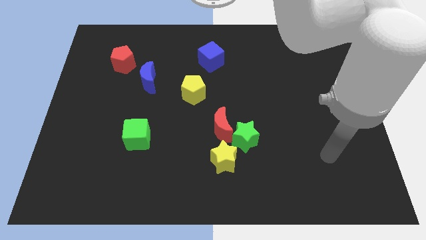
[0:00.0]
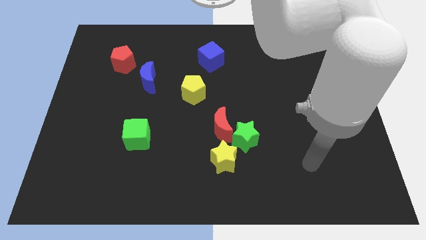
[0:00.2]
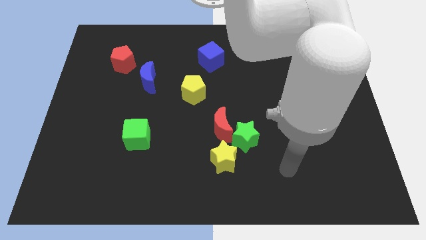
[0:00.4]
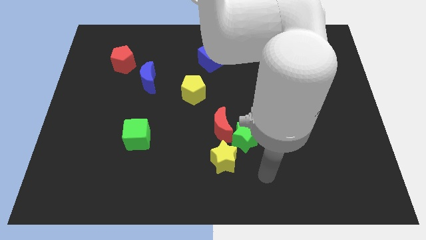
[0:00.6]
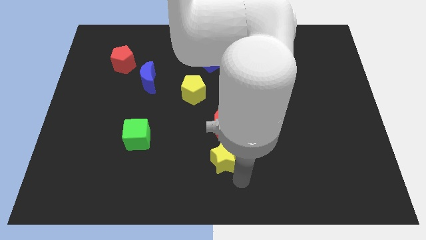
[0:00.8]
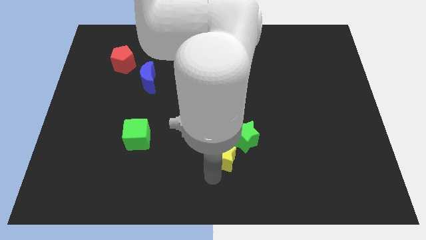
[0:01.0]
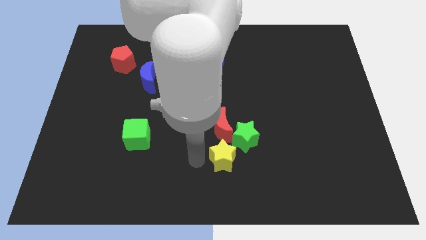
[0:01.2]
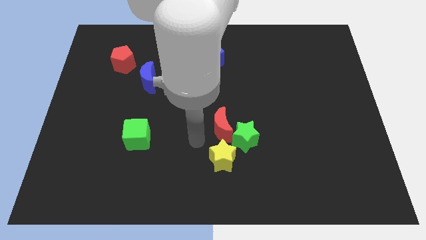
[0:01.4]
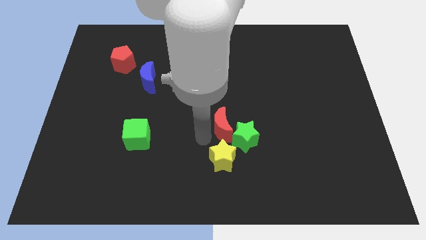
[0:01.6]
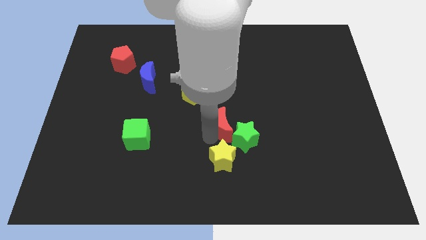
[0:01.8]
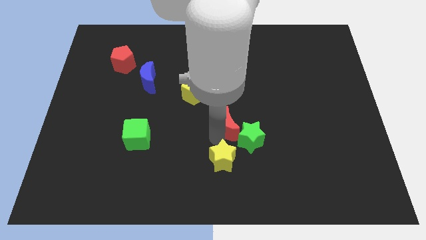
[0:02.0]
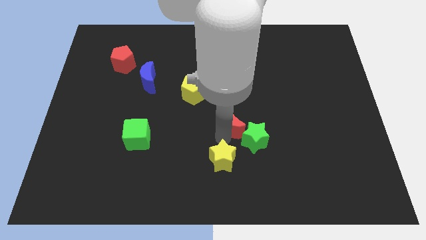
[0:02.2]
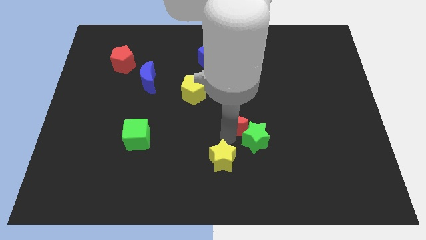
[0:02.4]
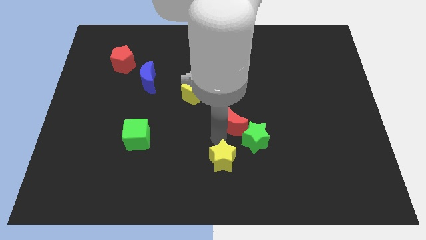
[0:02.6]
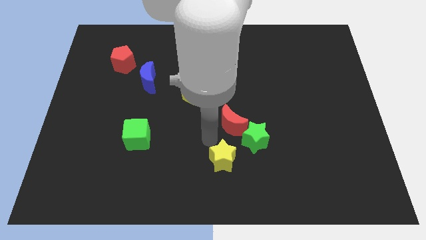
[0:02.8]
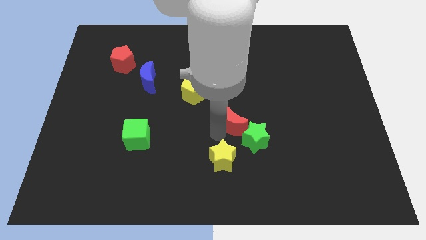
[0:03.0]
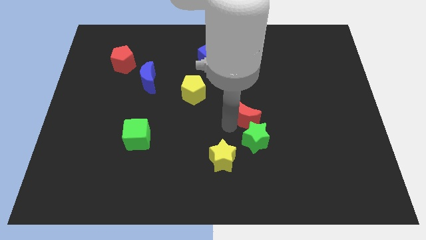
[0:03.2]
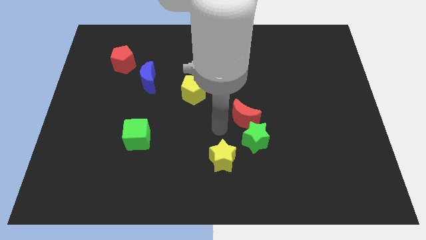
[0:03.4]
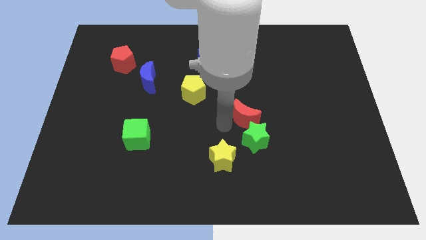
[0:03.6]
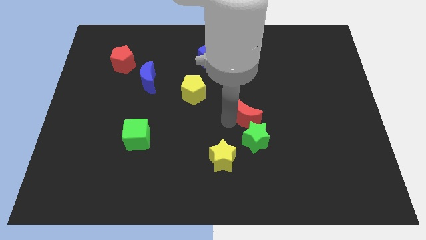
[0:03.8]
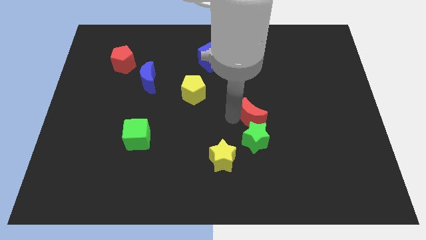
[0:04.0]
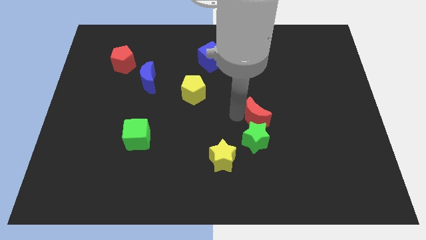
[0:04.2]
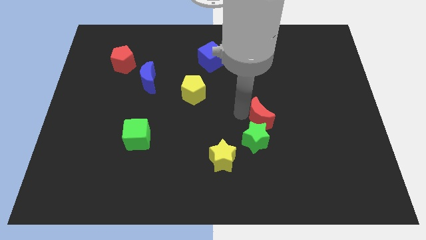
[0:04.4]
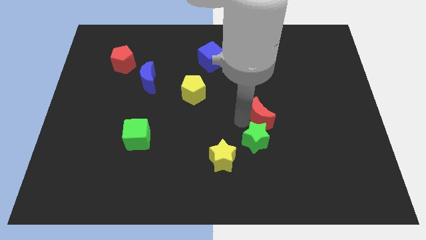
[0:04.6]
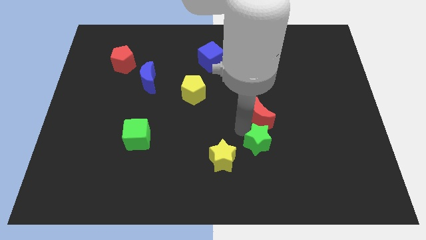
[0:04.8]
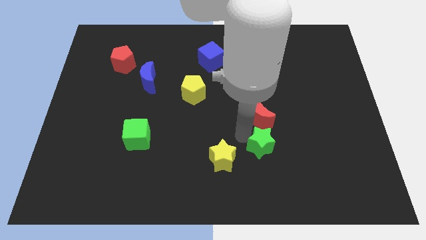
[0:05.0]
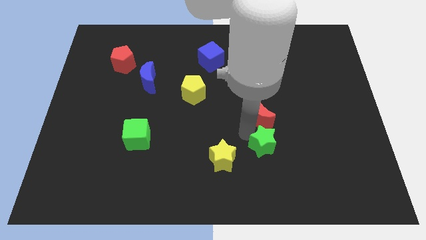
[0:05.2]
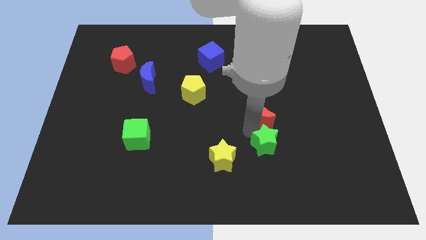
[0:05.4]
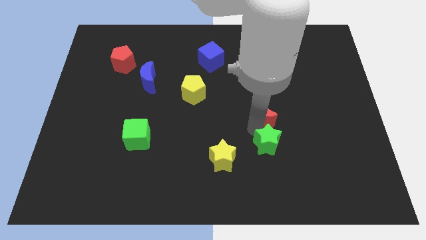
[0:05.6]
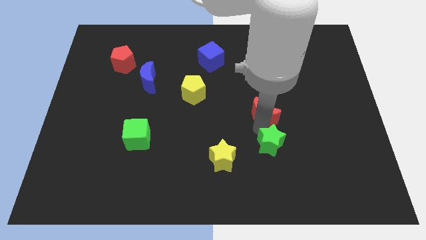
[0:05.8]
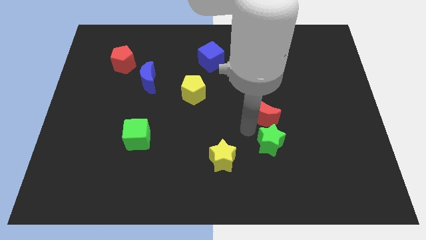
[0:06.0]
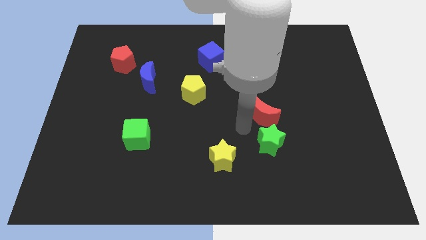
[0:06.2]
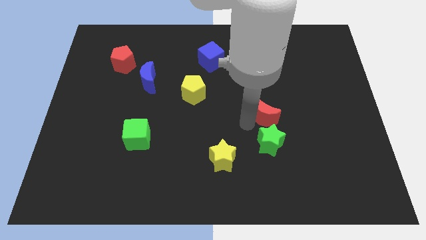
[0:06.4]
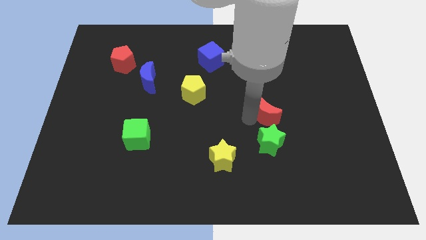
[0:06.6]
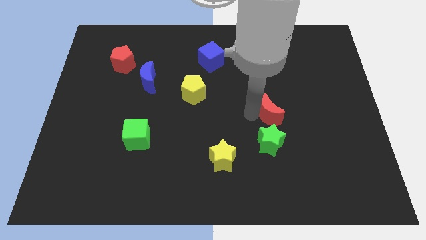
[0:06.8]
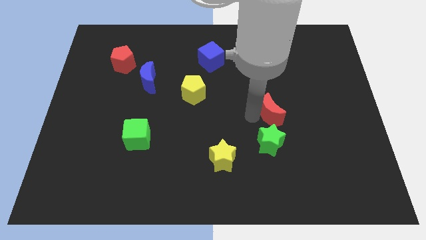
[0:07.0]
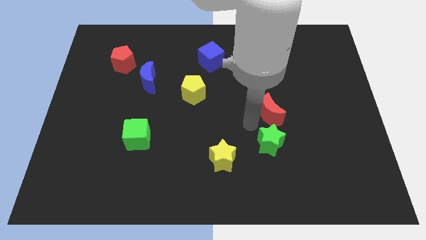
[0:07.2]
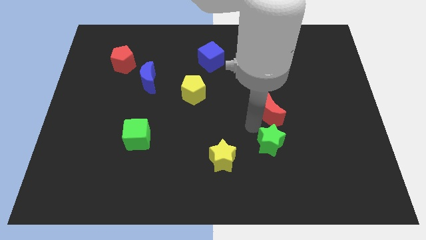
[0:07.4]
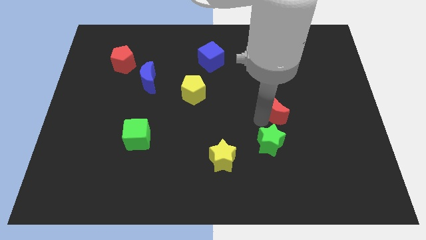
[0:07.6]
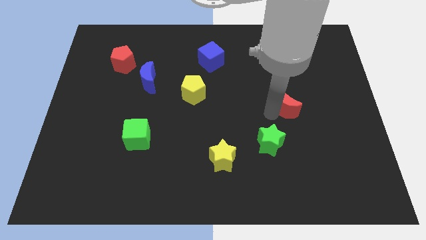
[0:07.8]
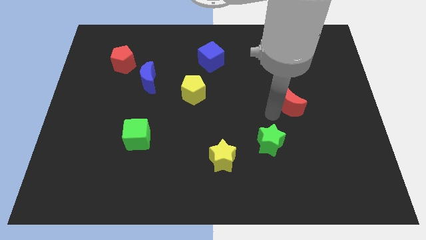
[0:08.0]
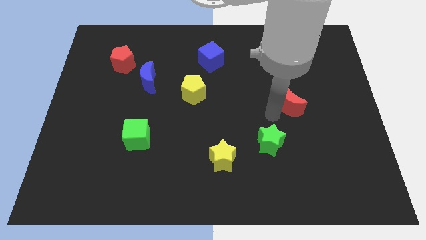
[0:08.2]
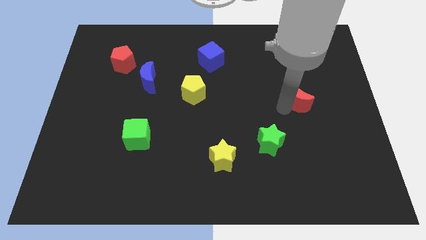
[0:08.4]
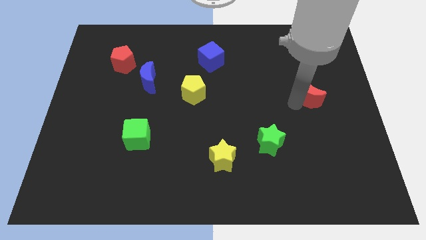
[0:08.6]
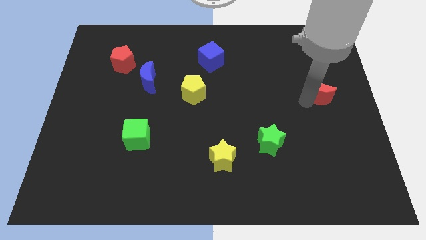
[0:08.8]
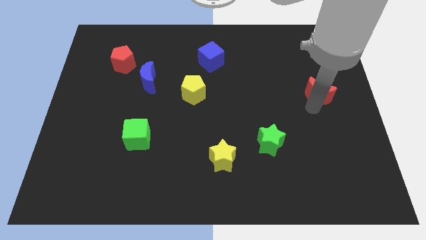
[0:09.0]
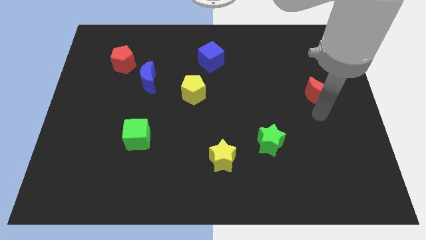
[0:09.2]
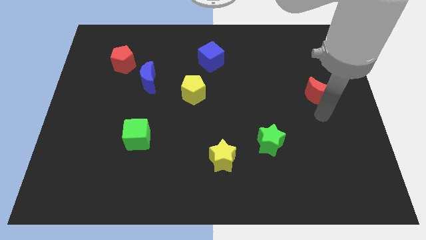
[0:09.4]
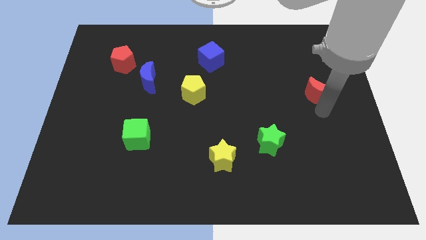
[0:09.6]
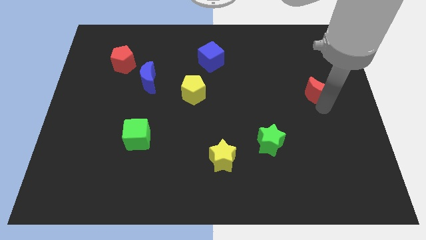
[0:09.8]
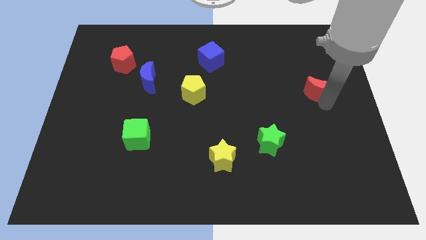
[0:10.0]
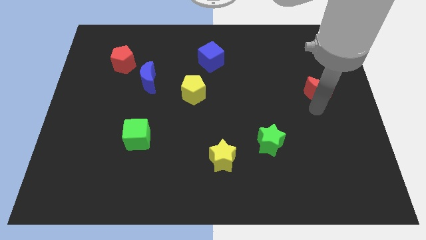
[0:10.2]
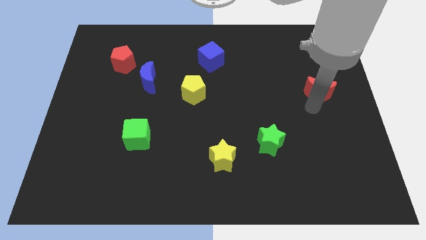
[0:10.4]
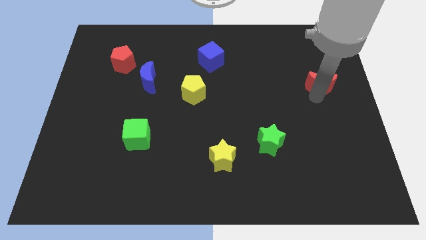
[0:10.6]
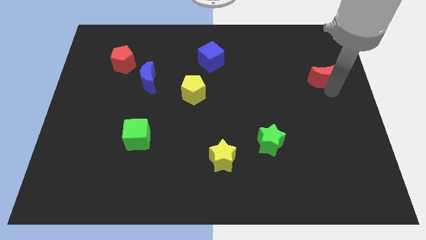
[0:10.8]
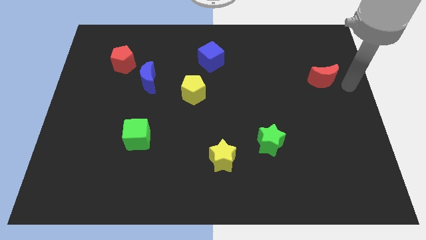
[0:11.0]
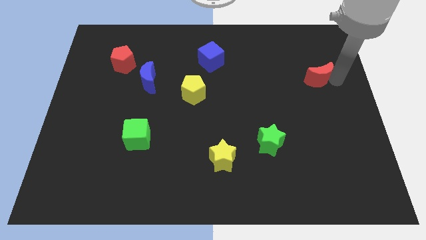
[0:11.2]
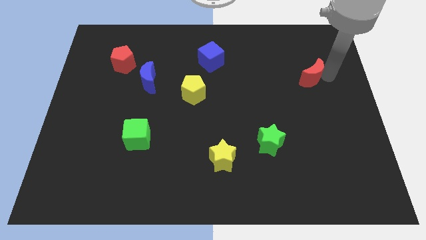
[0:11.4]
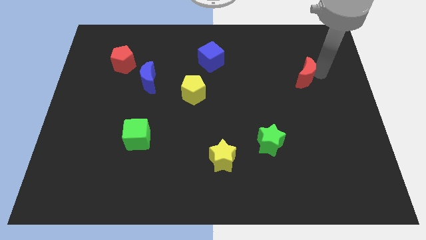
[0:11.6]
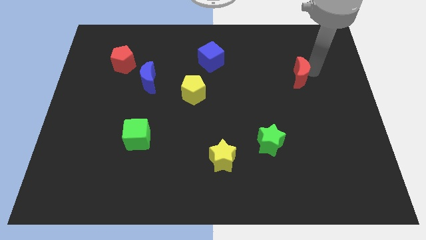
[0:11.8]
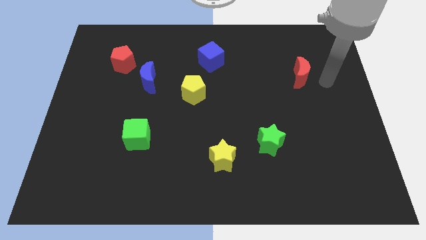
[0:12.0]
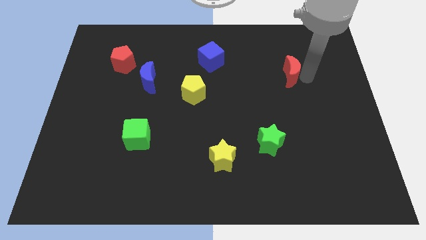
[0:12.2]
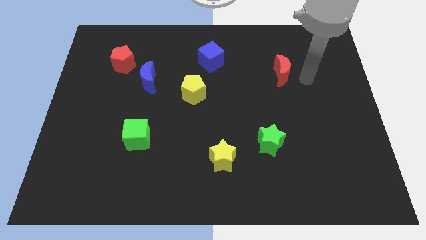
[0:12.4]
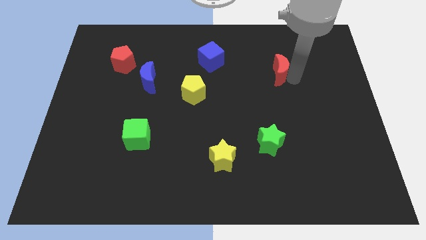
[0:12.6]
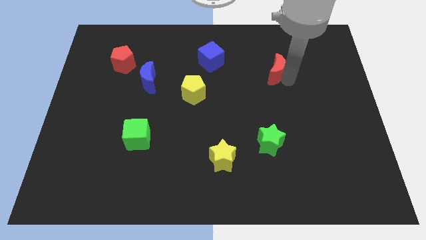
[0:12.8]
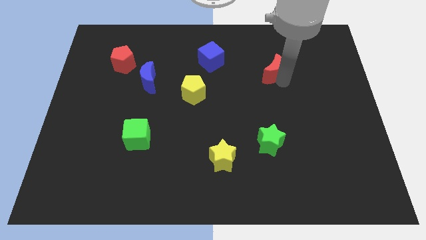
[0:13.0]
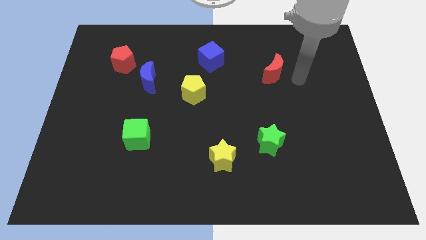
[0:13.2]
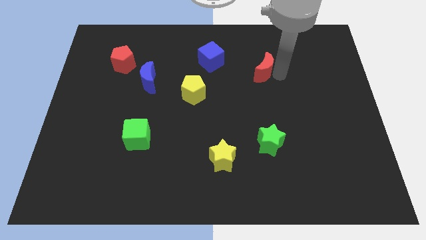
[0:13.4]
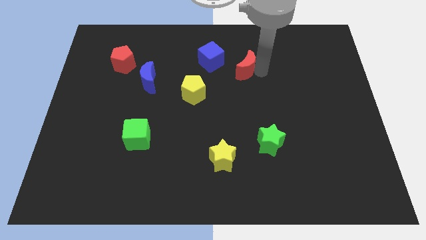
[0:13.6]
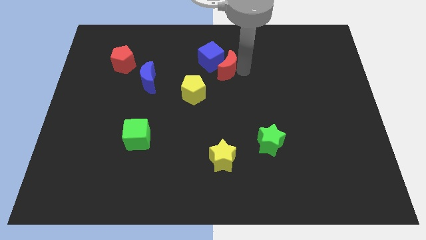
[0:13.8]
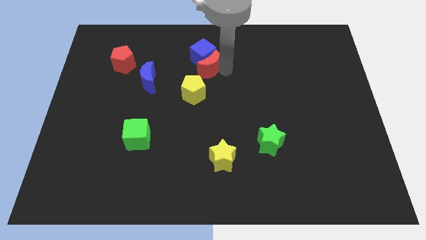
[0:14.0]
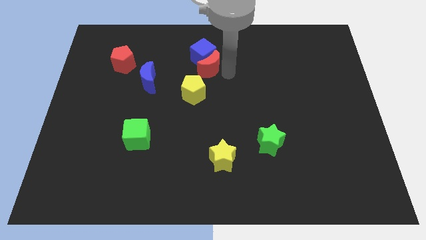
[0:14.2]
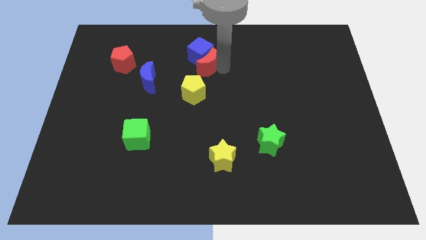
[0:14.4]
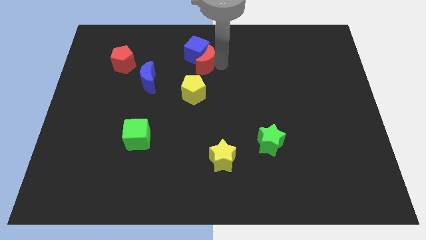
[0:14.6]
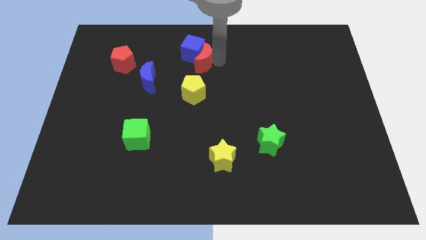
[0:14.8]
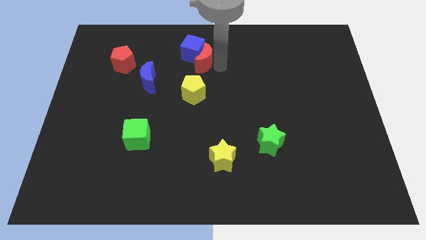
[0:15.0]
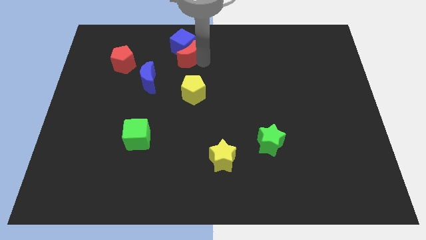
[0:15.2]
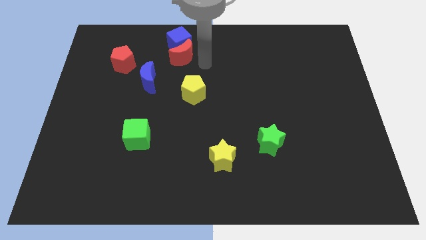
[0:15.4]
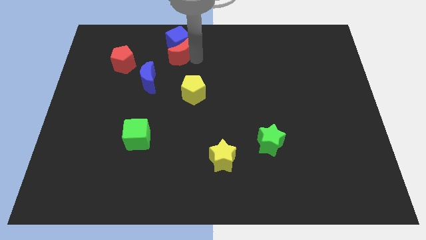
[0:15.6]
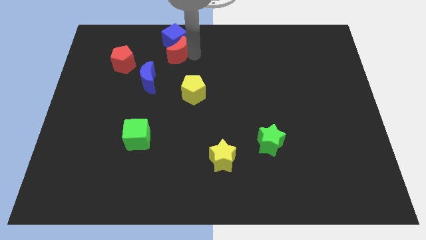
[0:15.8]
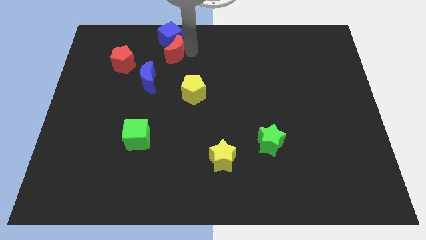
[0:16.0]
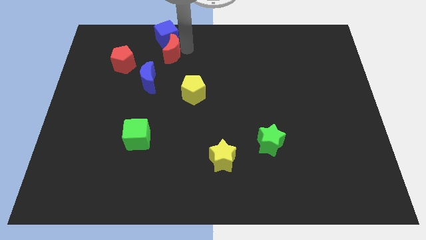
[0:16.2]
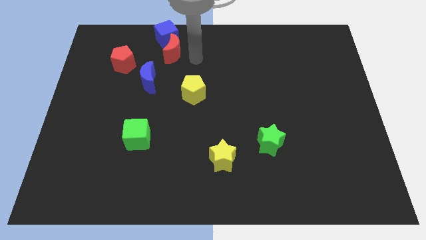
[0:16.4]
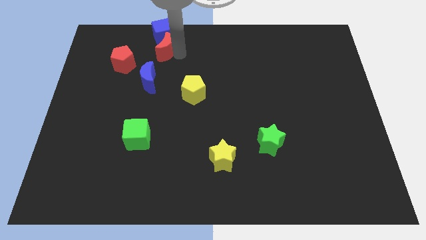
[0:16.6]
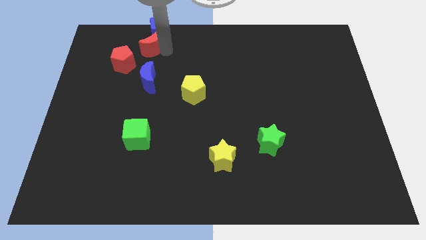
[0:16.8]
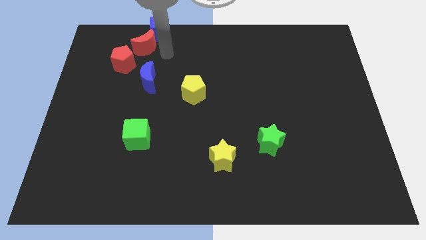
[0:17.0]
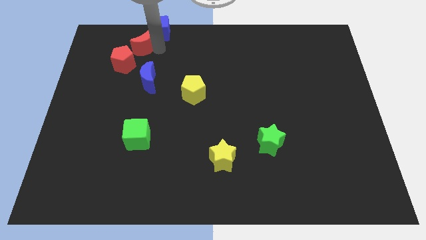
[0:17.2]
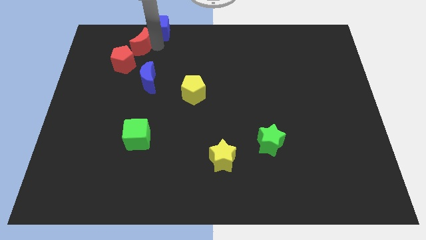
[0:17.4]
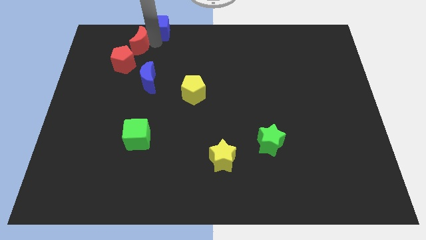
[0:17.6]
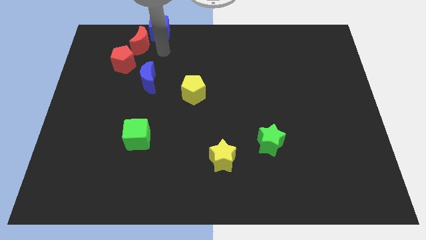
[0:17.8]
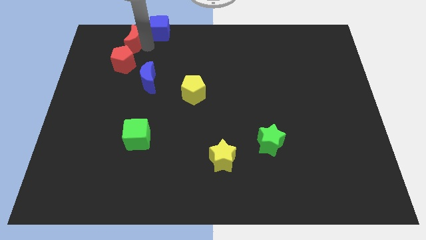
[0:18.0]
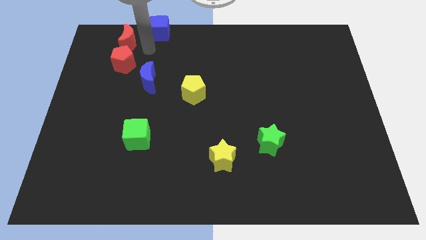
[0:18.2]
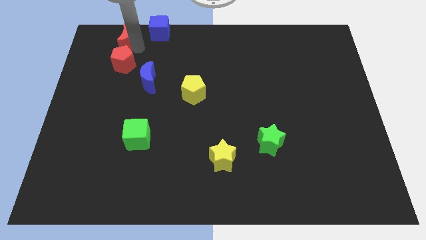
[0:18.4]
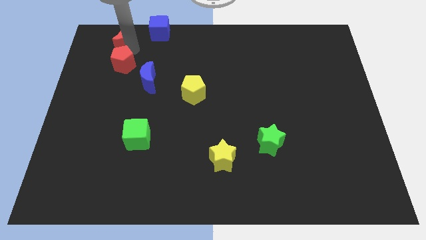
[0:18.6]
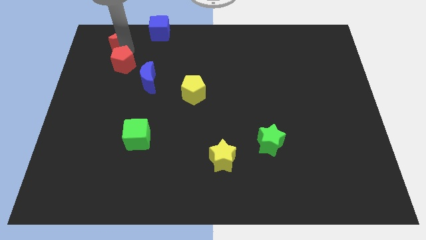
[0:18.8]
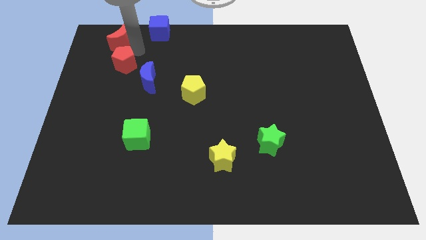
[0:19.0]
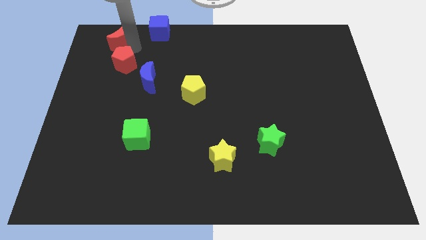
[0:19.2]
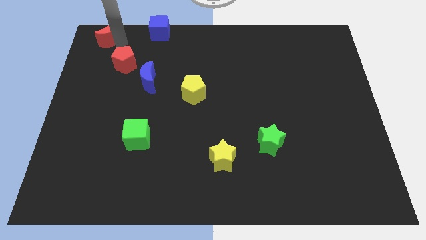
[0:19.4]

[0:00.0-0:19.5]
slide the red moon to the top left
